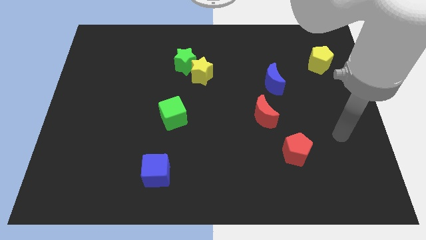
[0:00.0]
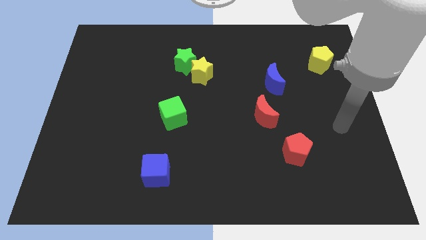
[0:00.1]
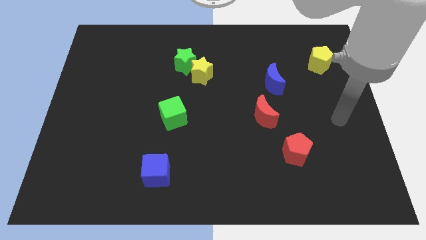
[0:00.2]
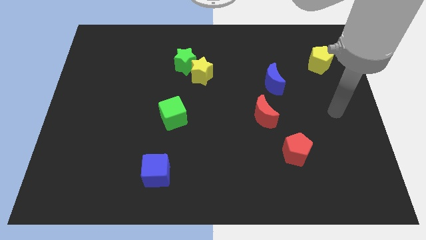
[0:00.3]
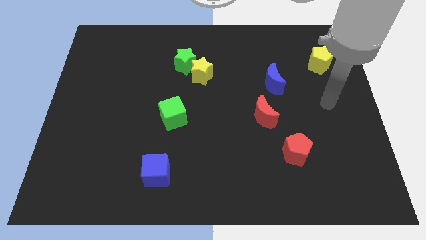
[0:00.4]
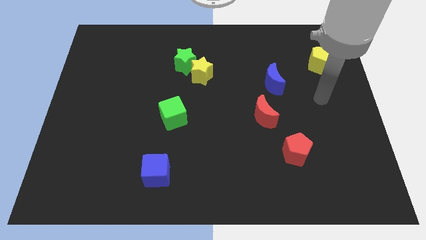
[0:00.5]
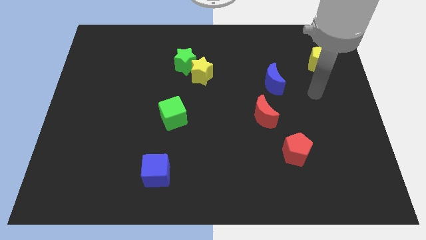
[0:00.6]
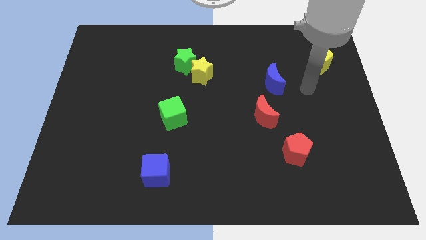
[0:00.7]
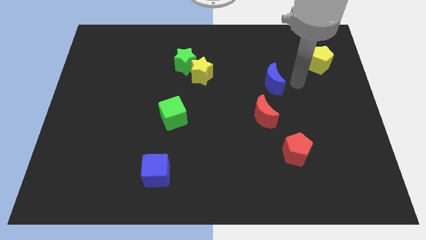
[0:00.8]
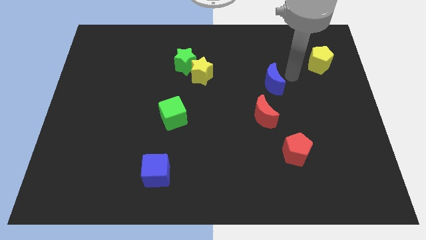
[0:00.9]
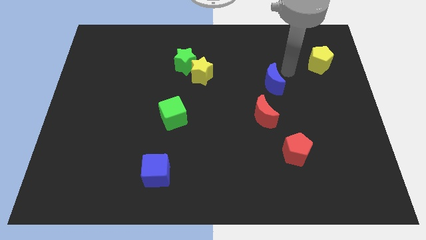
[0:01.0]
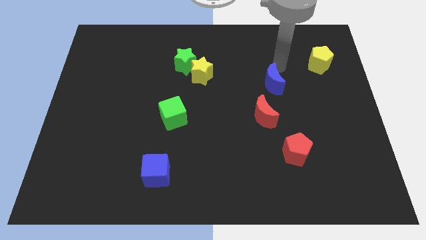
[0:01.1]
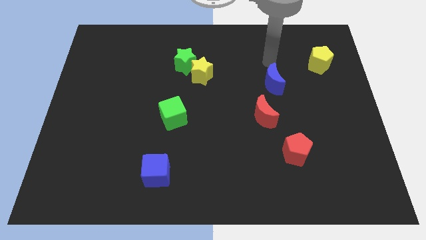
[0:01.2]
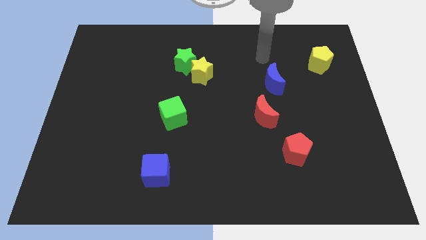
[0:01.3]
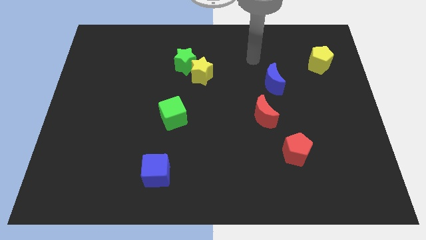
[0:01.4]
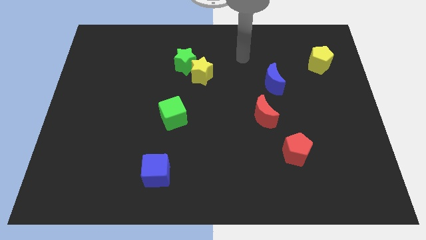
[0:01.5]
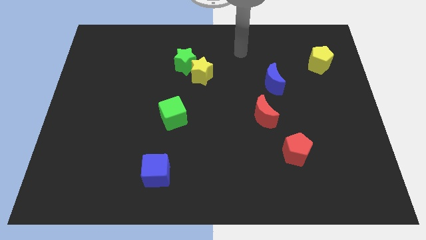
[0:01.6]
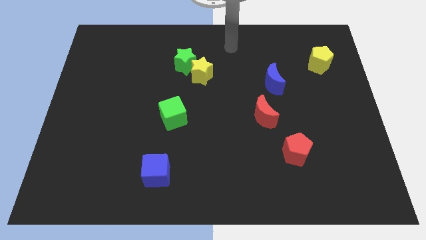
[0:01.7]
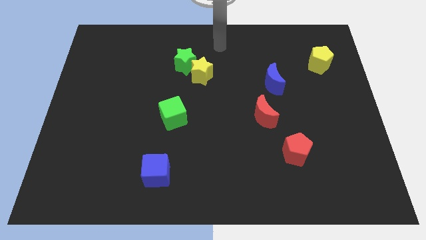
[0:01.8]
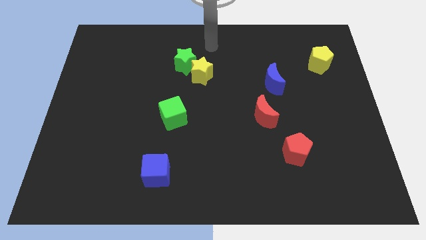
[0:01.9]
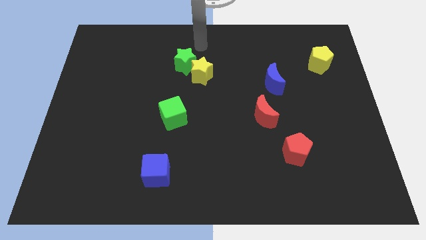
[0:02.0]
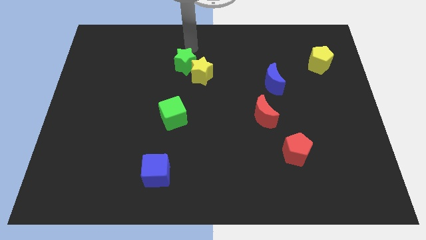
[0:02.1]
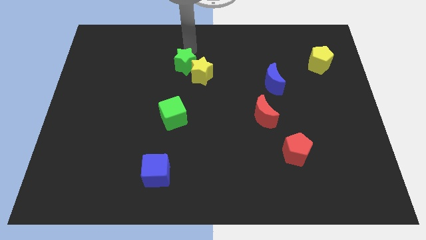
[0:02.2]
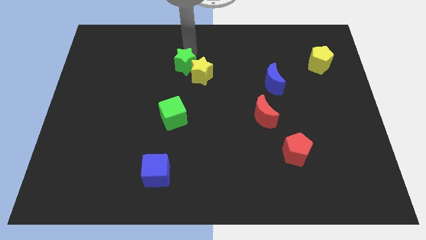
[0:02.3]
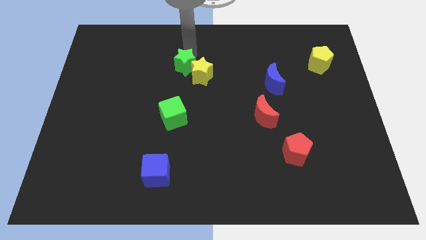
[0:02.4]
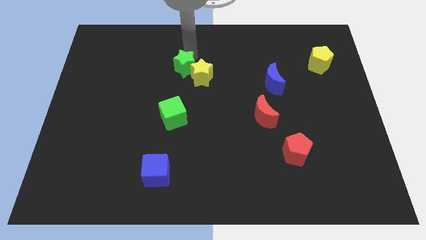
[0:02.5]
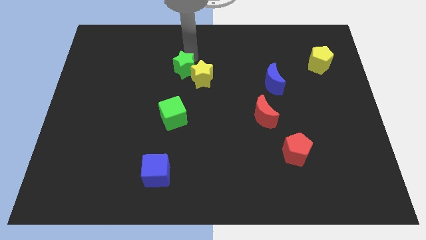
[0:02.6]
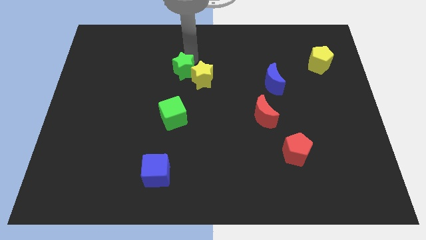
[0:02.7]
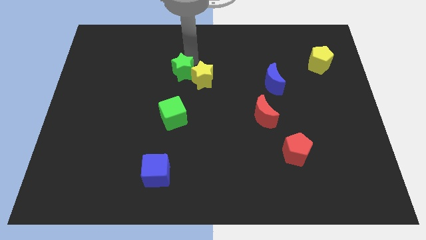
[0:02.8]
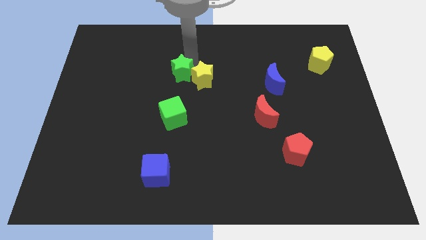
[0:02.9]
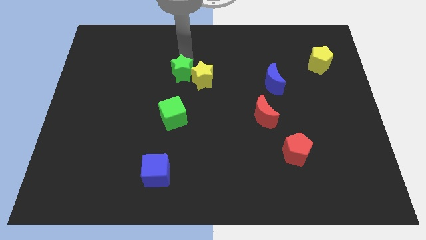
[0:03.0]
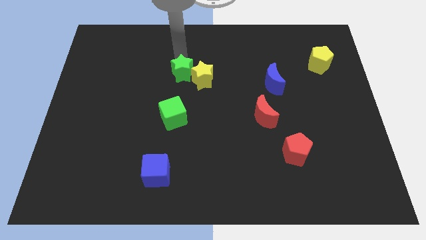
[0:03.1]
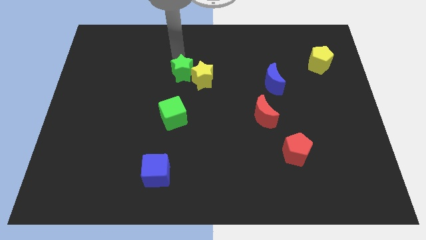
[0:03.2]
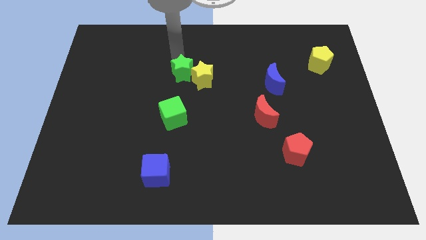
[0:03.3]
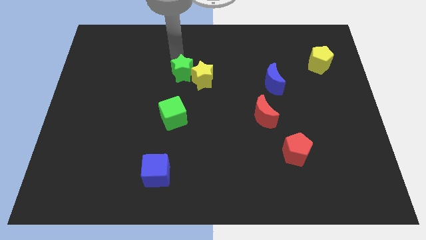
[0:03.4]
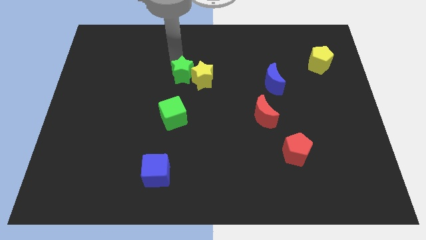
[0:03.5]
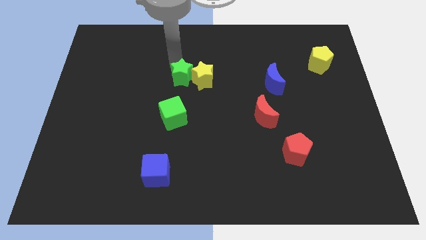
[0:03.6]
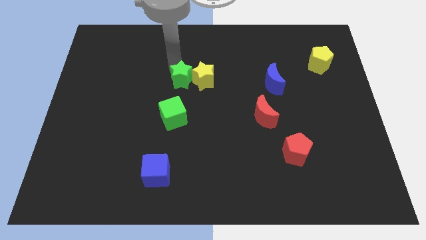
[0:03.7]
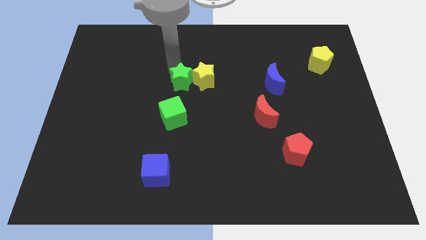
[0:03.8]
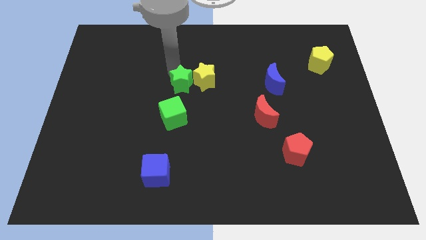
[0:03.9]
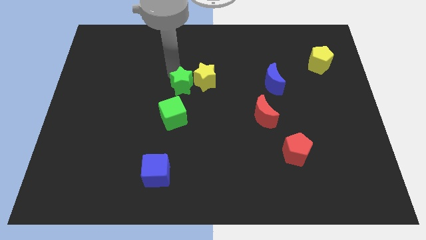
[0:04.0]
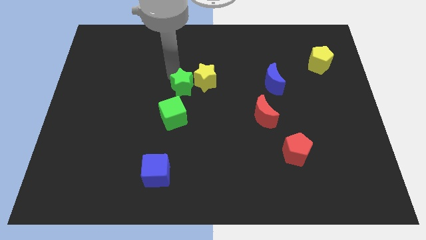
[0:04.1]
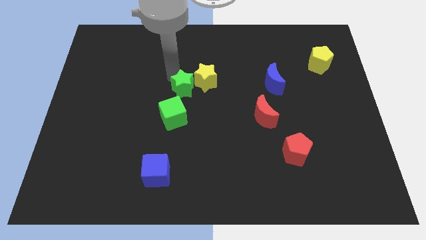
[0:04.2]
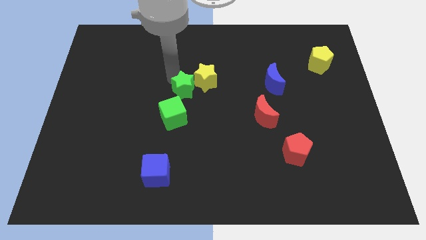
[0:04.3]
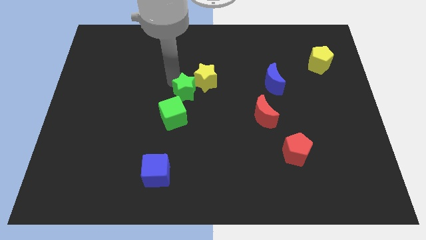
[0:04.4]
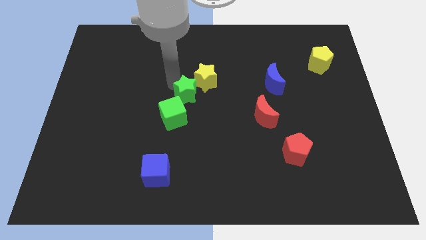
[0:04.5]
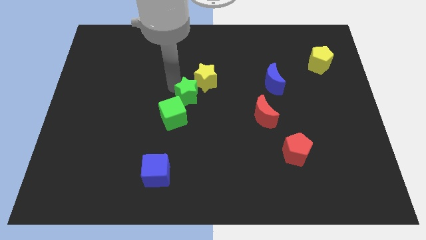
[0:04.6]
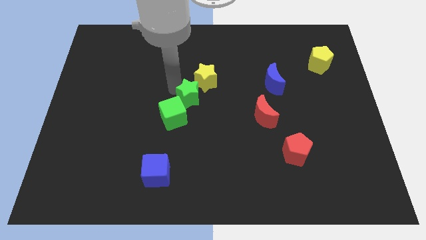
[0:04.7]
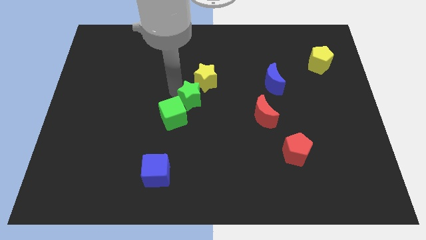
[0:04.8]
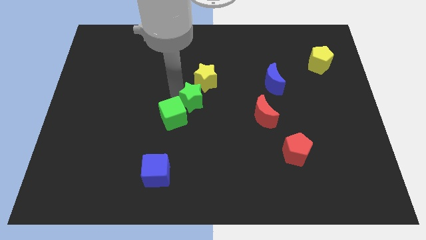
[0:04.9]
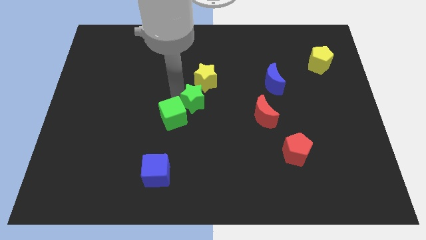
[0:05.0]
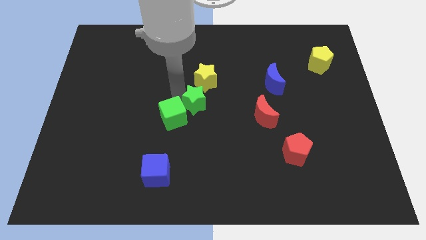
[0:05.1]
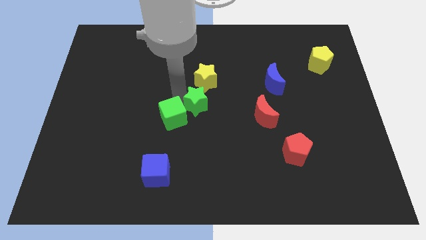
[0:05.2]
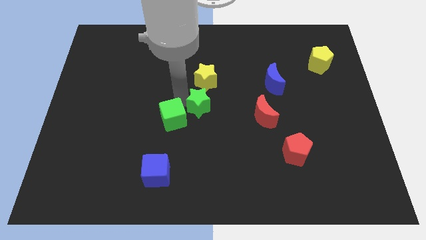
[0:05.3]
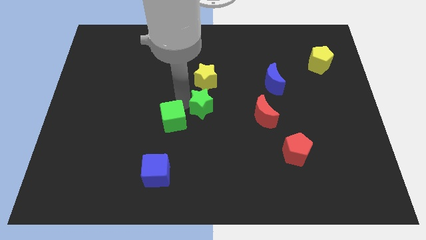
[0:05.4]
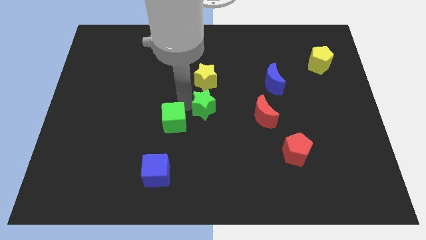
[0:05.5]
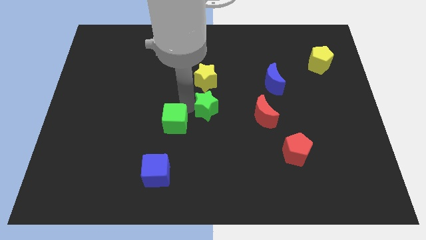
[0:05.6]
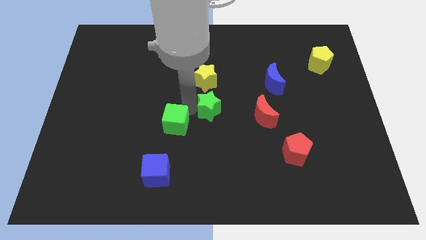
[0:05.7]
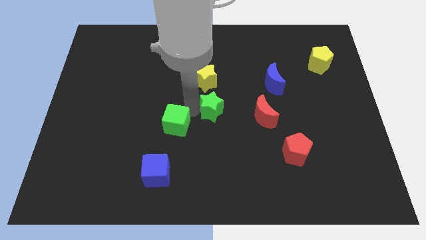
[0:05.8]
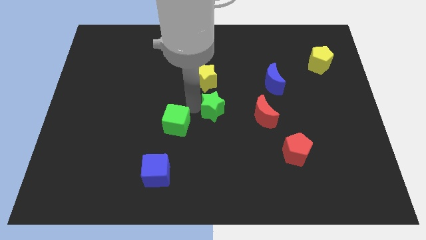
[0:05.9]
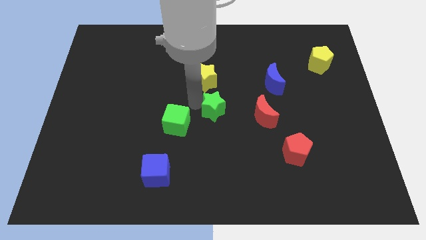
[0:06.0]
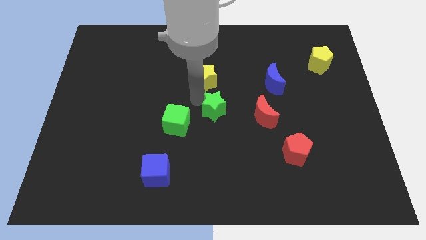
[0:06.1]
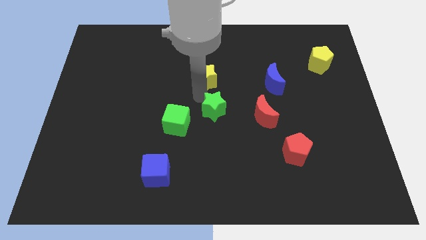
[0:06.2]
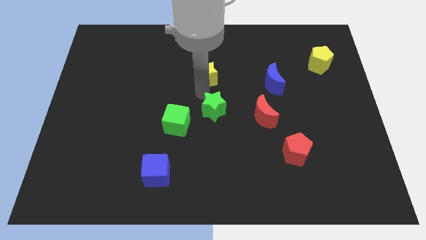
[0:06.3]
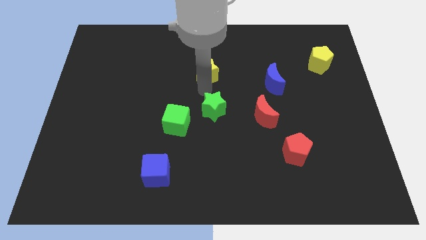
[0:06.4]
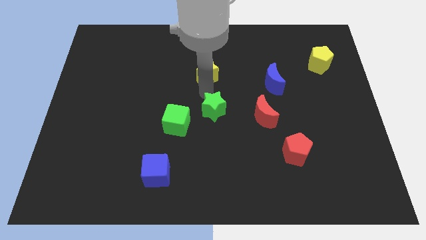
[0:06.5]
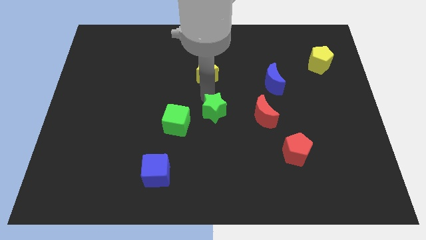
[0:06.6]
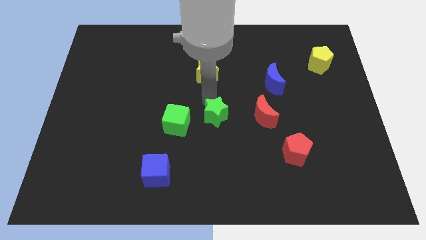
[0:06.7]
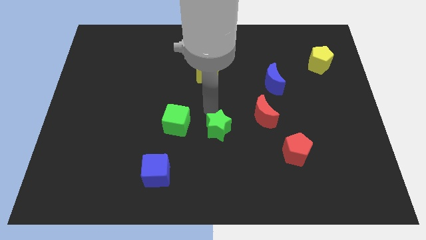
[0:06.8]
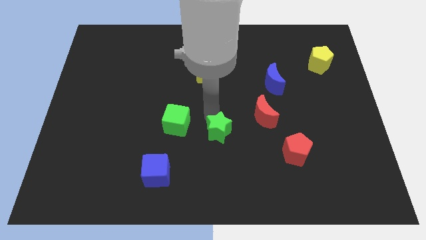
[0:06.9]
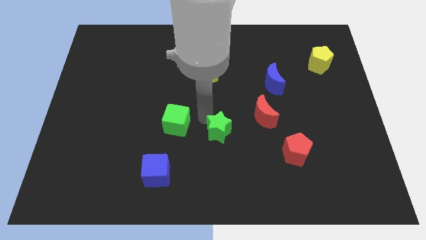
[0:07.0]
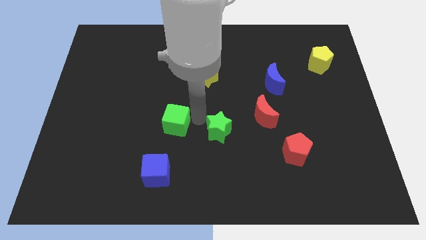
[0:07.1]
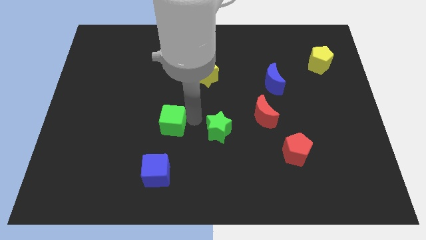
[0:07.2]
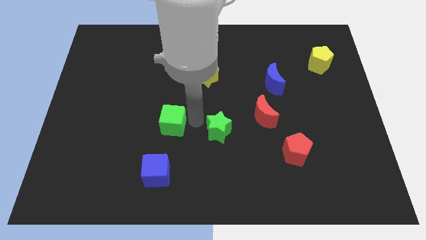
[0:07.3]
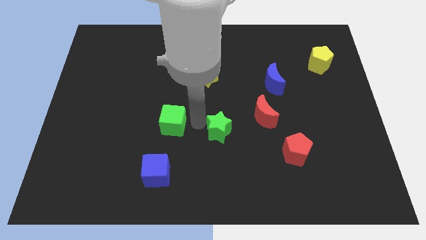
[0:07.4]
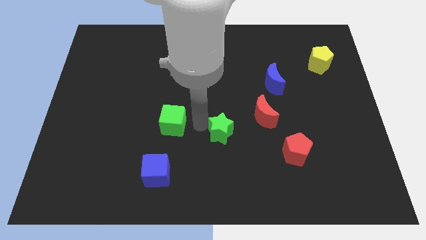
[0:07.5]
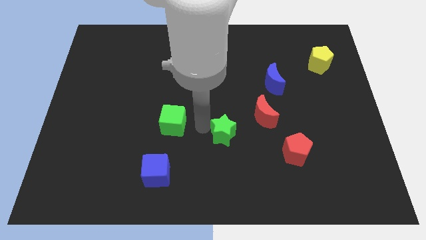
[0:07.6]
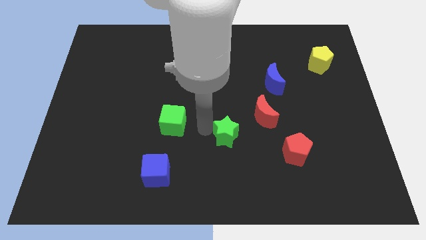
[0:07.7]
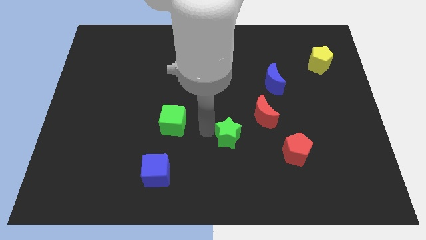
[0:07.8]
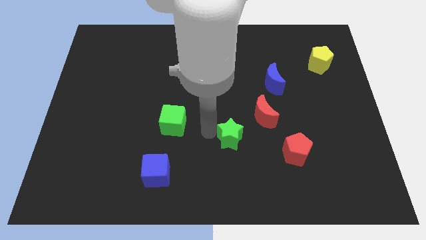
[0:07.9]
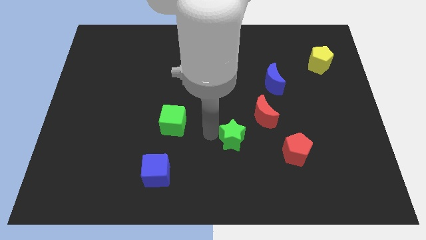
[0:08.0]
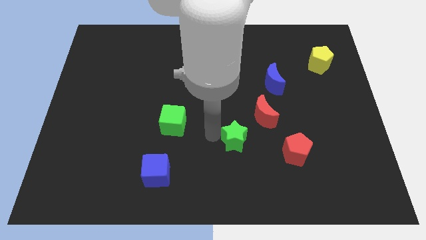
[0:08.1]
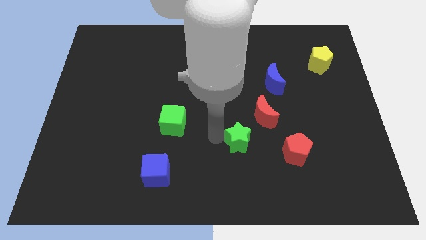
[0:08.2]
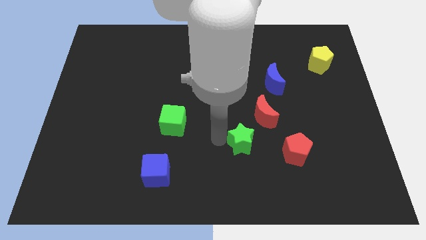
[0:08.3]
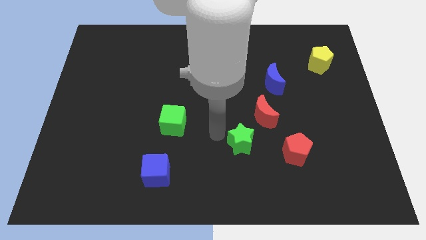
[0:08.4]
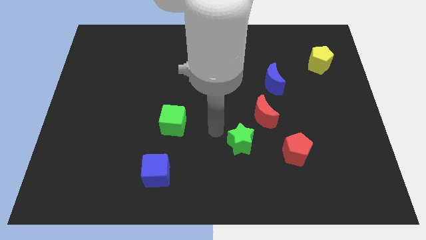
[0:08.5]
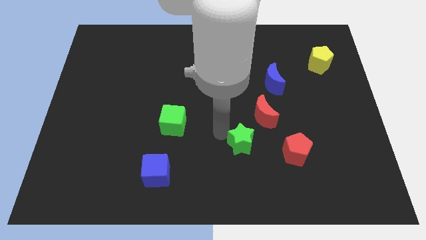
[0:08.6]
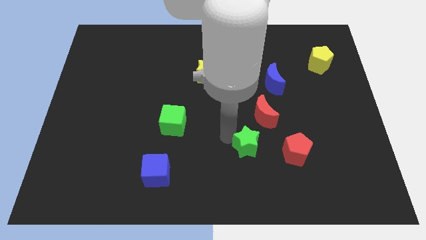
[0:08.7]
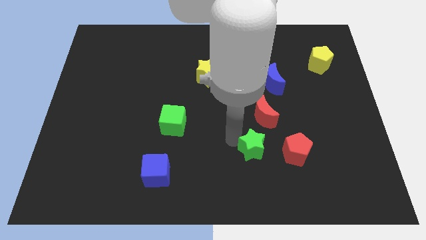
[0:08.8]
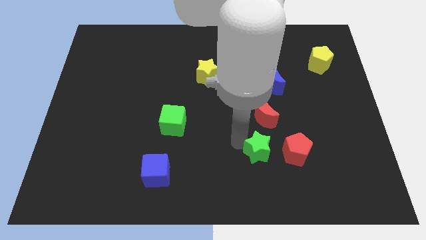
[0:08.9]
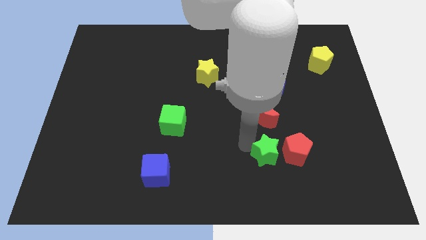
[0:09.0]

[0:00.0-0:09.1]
slide the green star to the bottom left of the red pentagon
